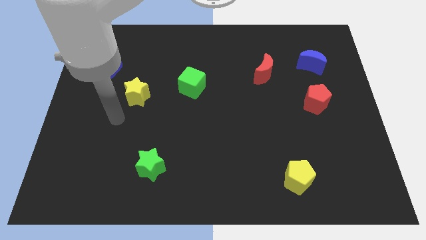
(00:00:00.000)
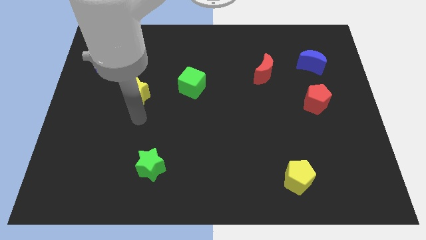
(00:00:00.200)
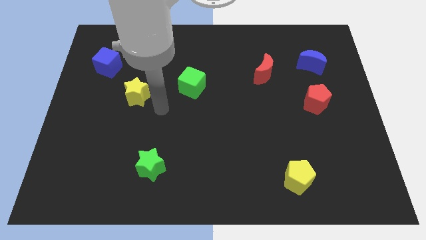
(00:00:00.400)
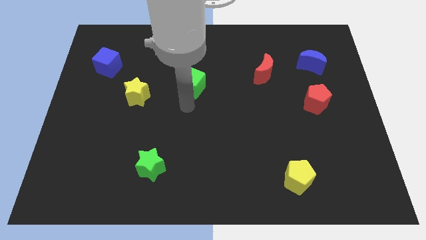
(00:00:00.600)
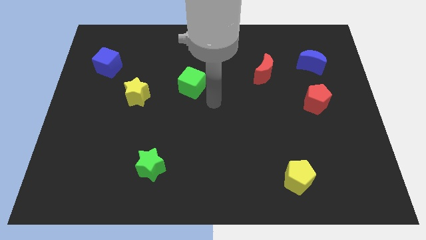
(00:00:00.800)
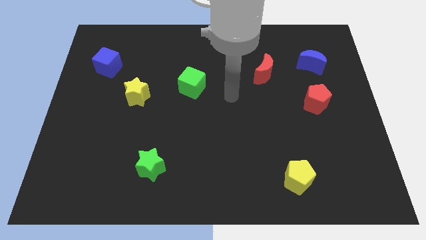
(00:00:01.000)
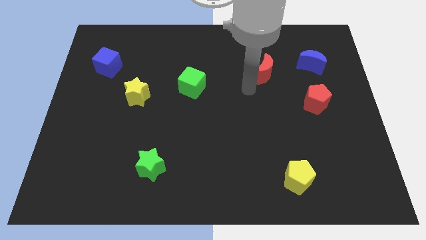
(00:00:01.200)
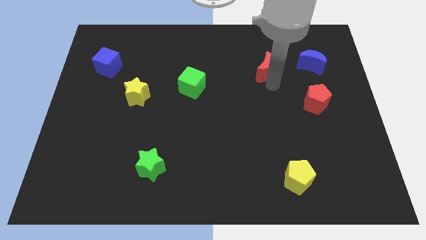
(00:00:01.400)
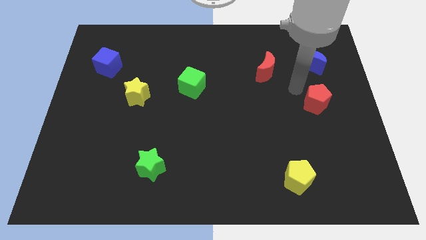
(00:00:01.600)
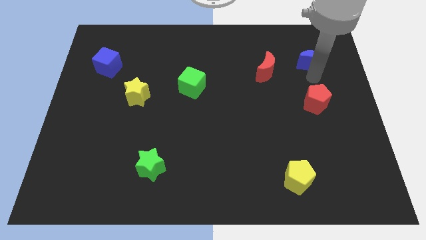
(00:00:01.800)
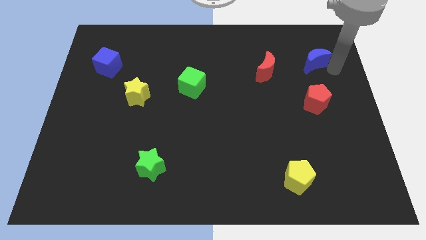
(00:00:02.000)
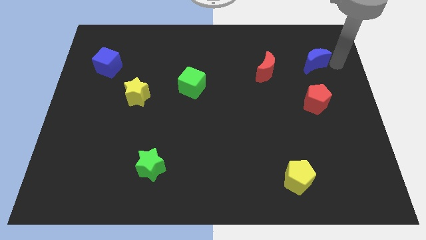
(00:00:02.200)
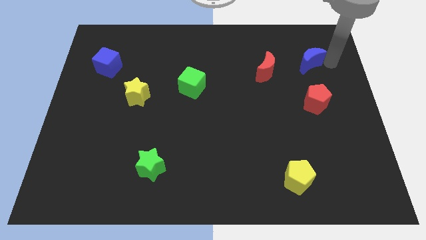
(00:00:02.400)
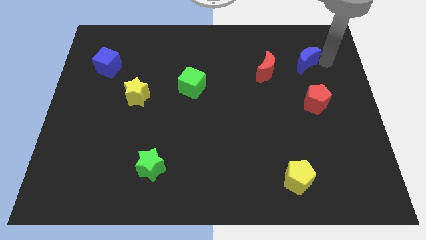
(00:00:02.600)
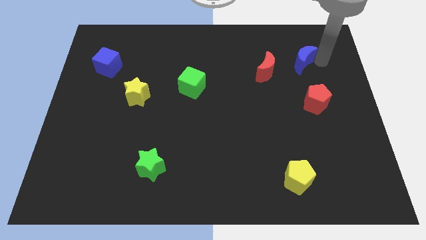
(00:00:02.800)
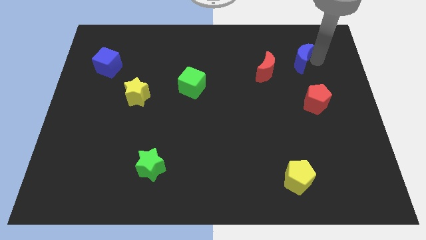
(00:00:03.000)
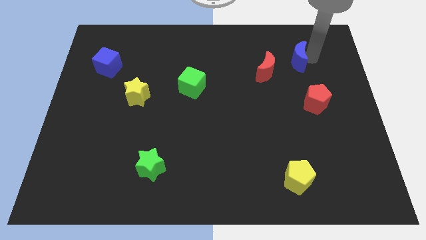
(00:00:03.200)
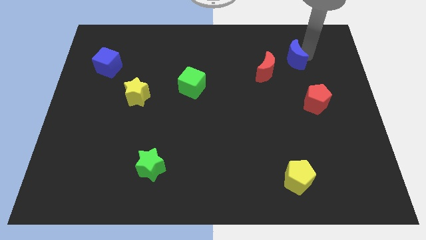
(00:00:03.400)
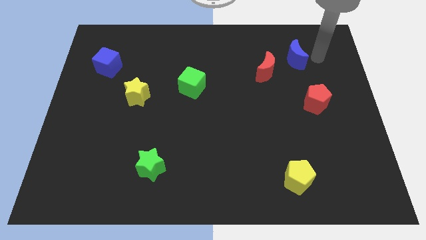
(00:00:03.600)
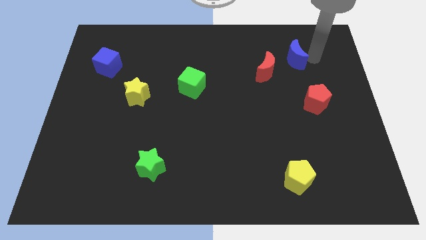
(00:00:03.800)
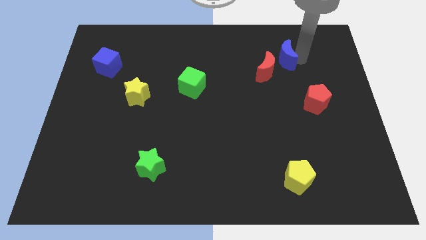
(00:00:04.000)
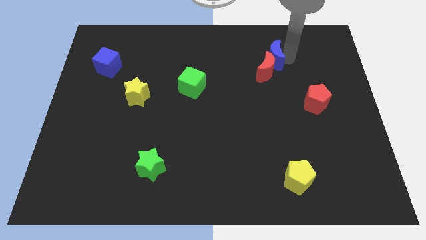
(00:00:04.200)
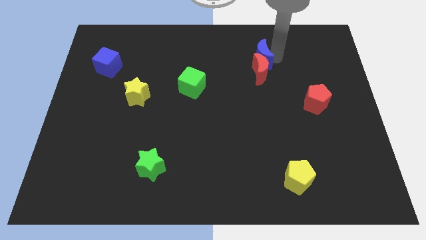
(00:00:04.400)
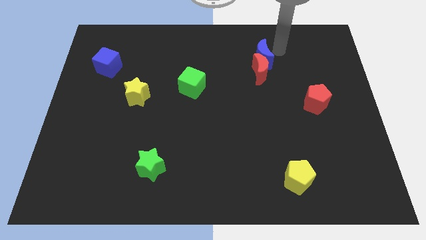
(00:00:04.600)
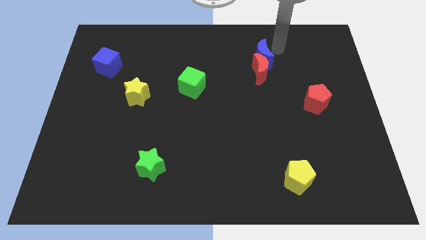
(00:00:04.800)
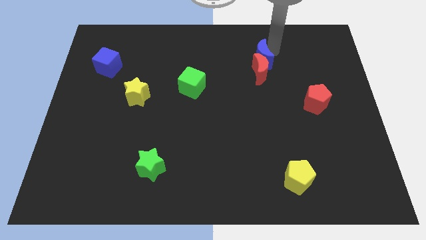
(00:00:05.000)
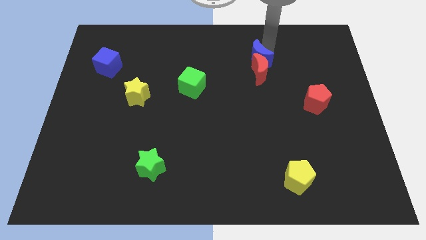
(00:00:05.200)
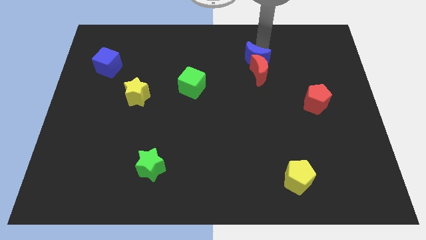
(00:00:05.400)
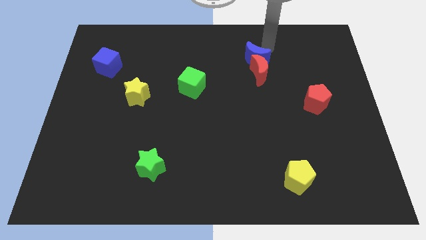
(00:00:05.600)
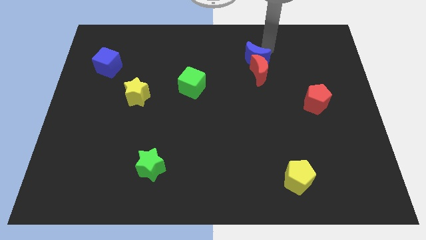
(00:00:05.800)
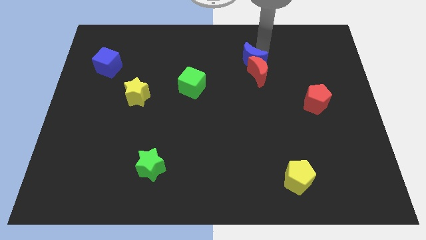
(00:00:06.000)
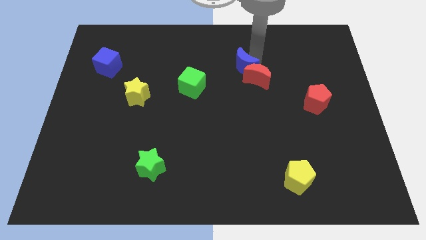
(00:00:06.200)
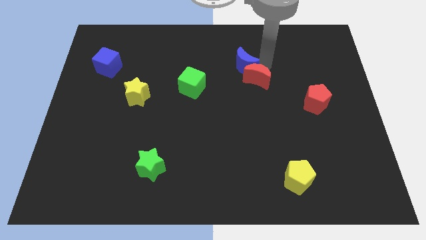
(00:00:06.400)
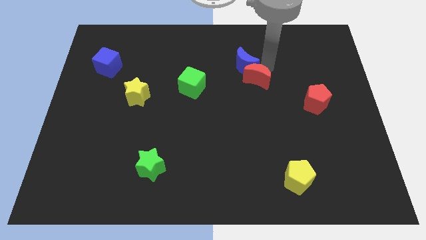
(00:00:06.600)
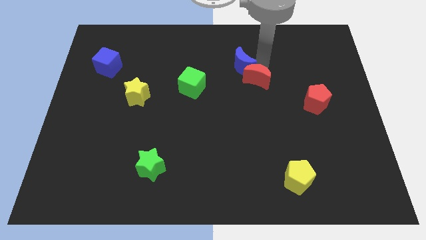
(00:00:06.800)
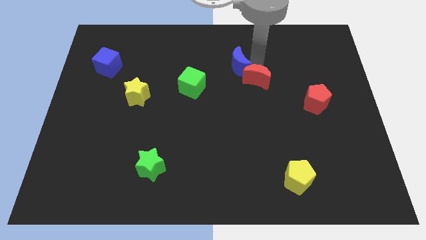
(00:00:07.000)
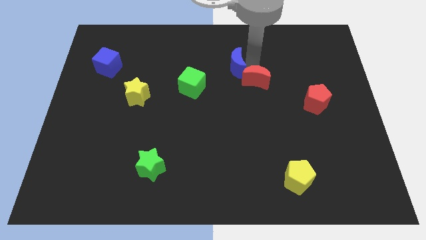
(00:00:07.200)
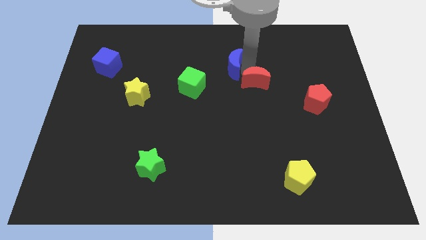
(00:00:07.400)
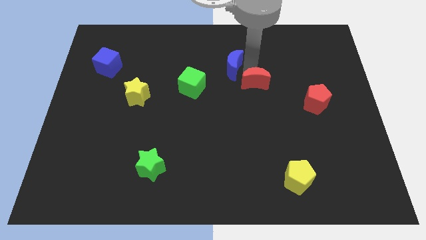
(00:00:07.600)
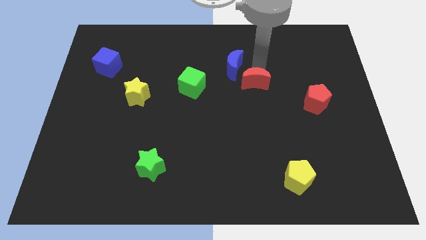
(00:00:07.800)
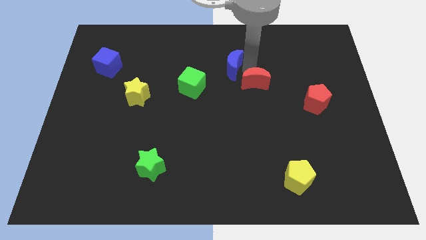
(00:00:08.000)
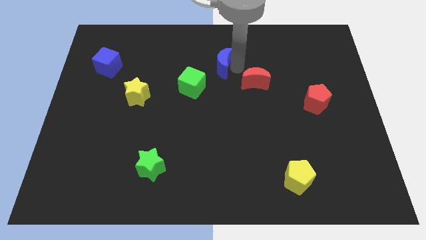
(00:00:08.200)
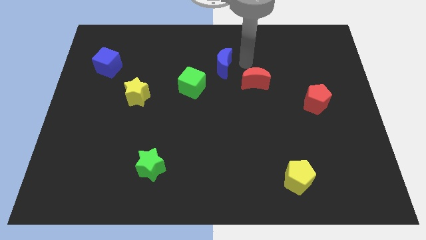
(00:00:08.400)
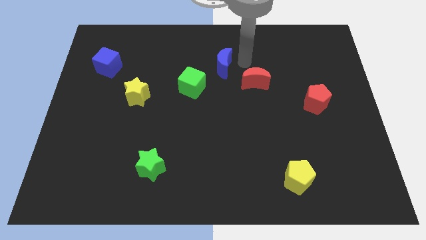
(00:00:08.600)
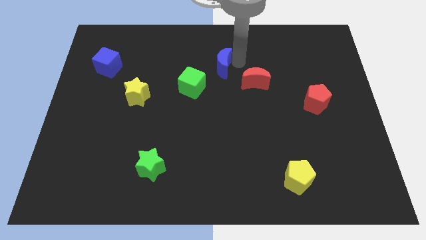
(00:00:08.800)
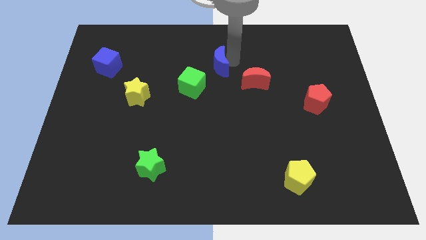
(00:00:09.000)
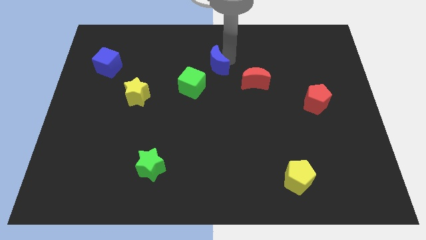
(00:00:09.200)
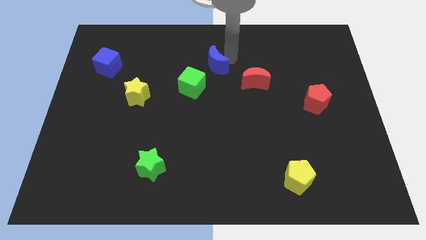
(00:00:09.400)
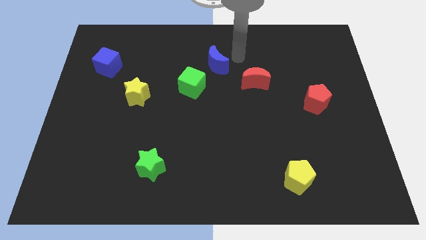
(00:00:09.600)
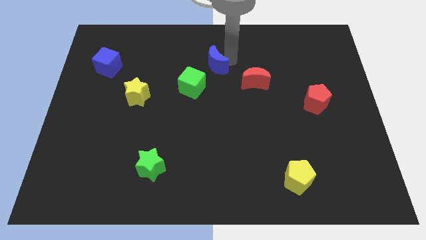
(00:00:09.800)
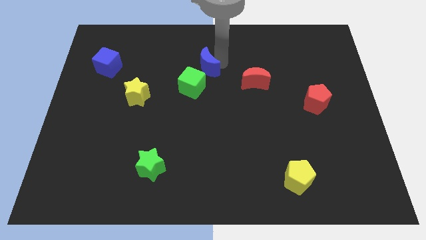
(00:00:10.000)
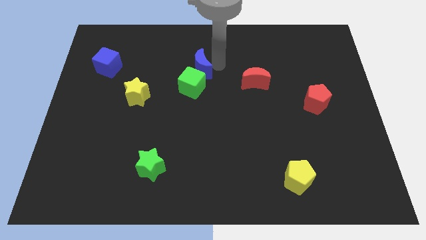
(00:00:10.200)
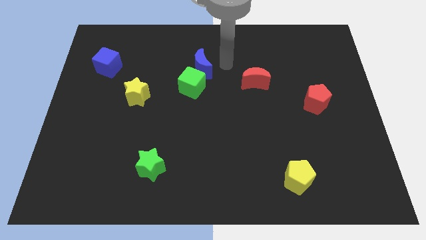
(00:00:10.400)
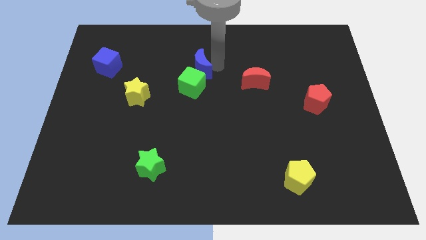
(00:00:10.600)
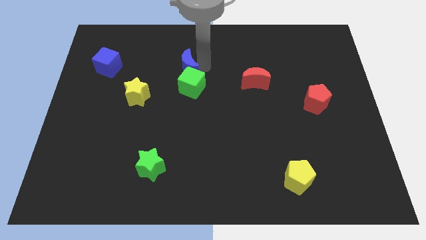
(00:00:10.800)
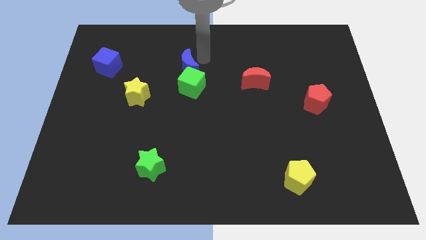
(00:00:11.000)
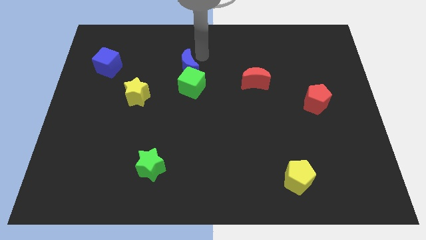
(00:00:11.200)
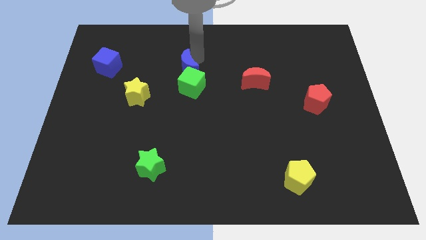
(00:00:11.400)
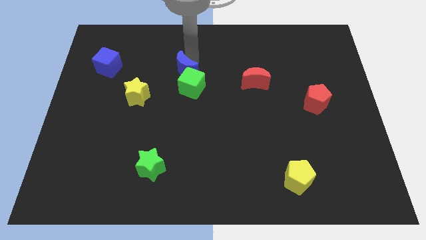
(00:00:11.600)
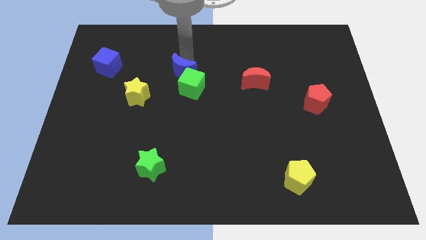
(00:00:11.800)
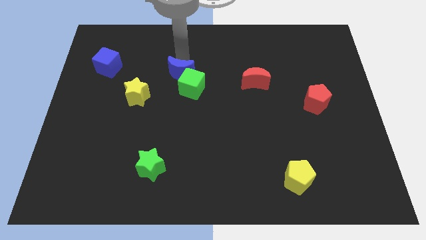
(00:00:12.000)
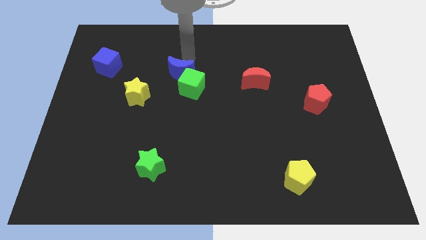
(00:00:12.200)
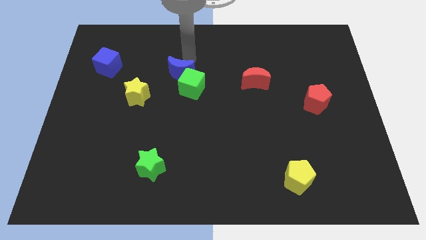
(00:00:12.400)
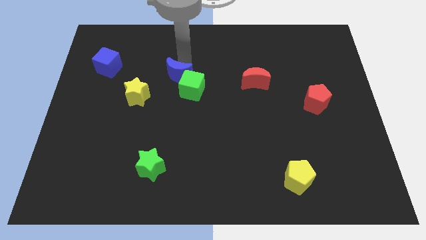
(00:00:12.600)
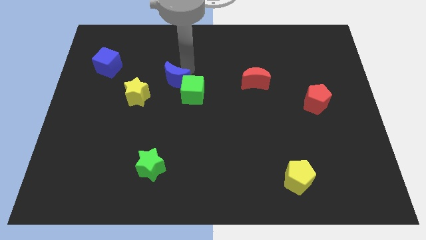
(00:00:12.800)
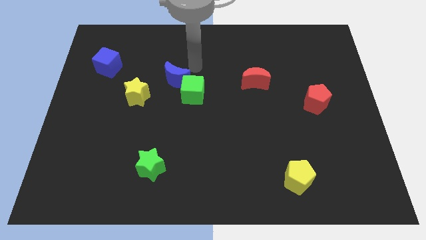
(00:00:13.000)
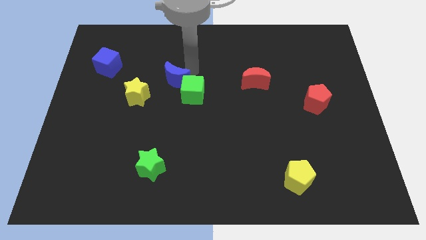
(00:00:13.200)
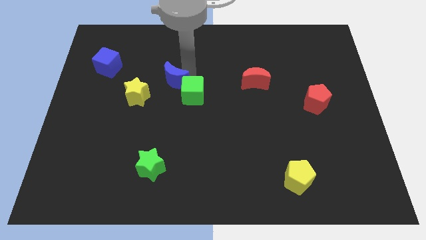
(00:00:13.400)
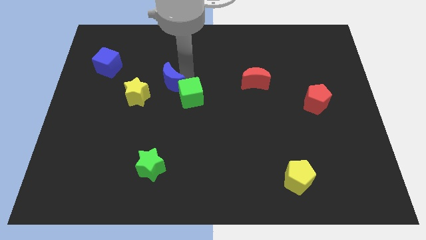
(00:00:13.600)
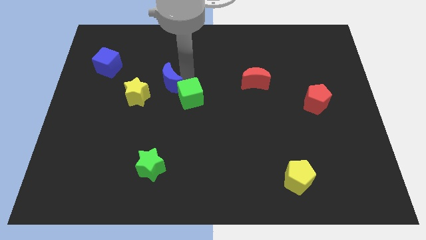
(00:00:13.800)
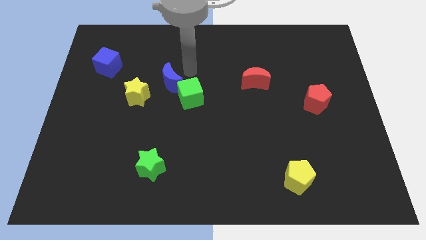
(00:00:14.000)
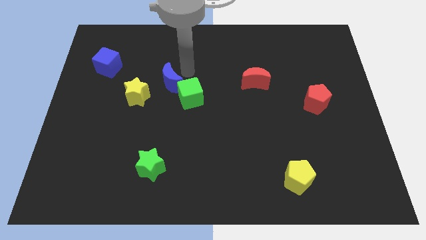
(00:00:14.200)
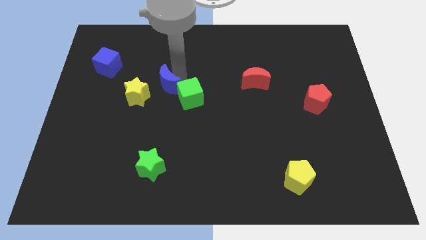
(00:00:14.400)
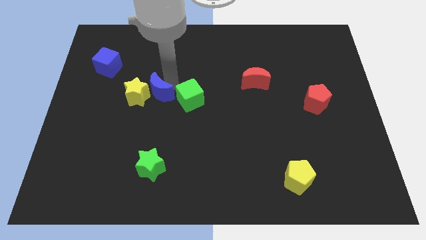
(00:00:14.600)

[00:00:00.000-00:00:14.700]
move the blue moon towards the yellow star

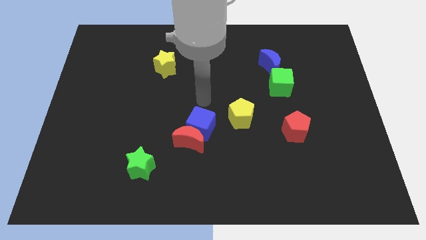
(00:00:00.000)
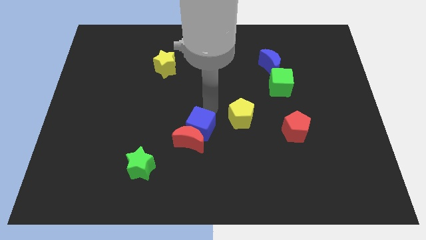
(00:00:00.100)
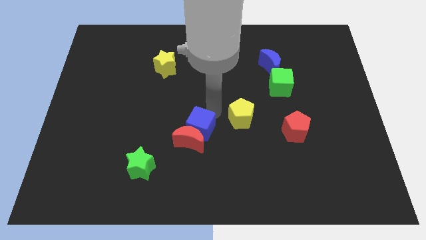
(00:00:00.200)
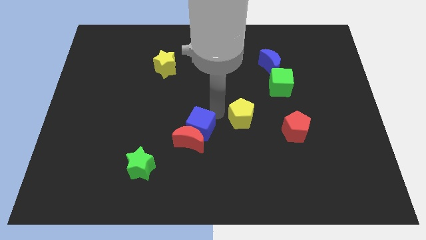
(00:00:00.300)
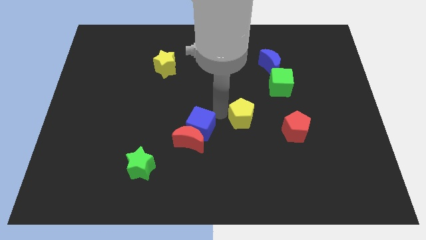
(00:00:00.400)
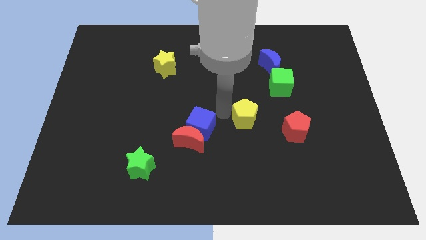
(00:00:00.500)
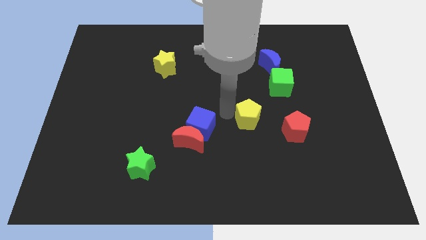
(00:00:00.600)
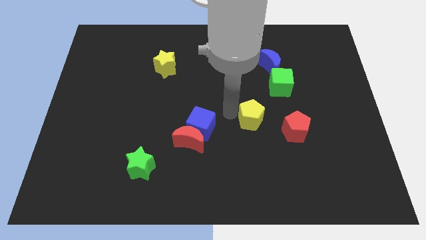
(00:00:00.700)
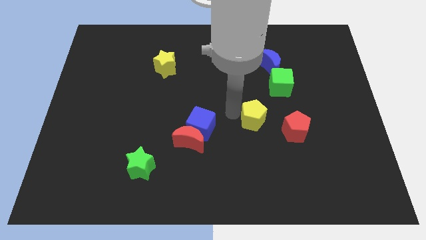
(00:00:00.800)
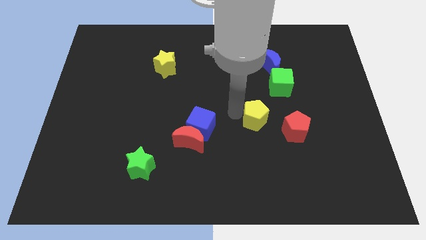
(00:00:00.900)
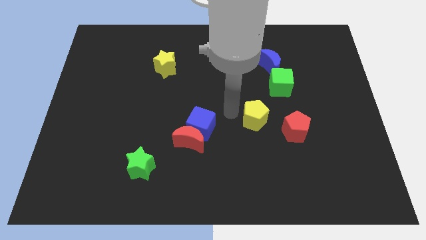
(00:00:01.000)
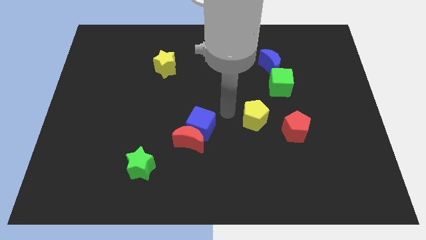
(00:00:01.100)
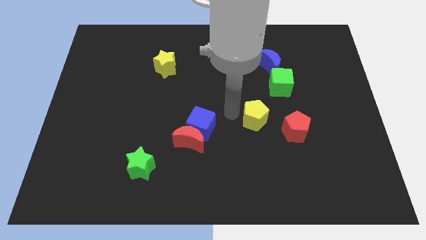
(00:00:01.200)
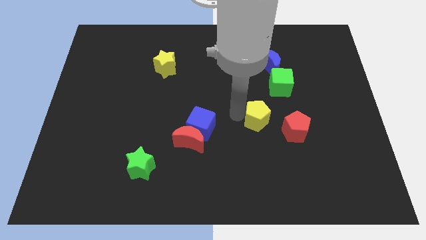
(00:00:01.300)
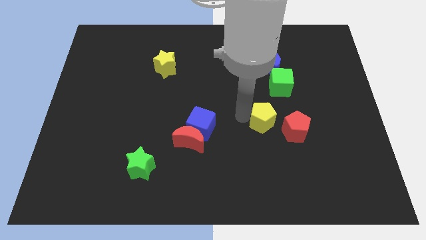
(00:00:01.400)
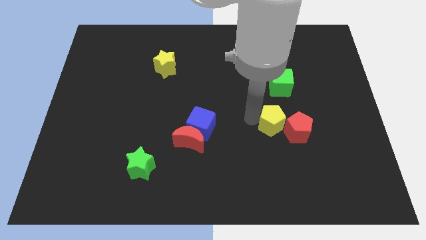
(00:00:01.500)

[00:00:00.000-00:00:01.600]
move the yellow pentagon towards the red pentagon
